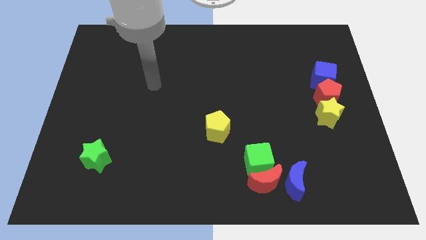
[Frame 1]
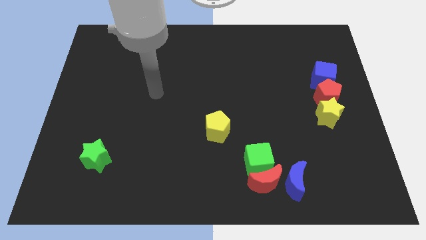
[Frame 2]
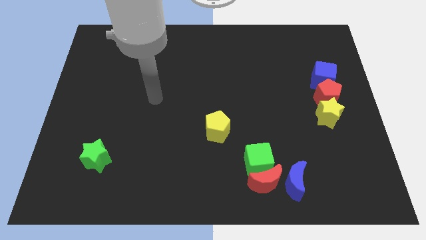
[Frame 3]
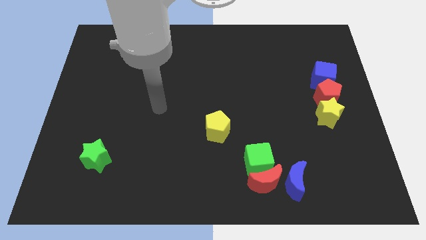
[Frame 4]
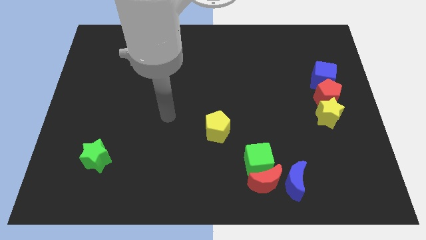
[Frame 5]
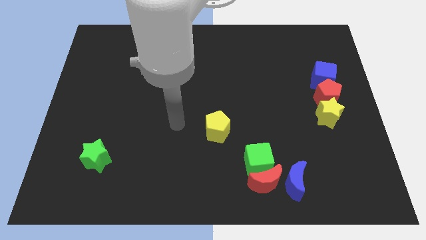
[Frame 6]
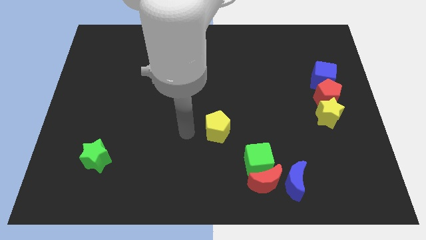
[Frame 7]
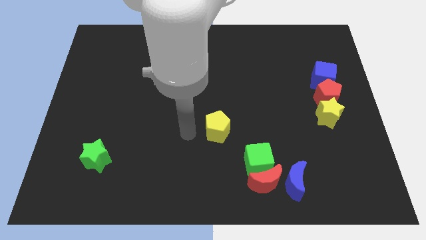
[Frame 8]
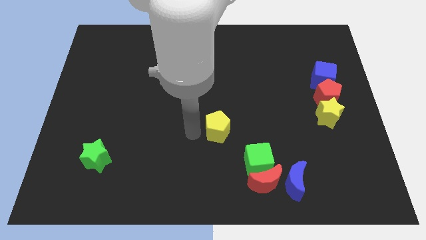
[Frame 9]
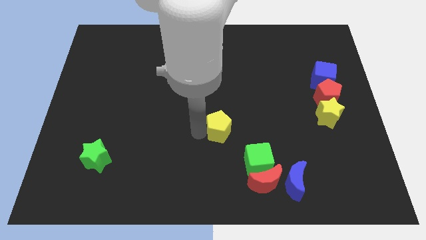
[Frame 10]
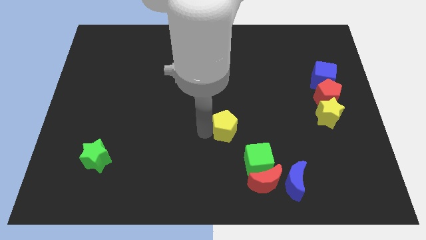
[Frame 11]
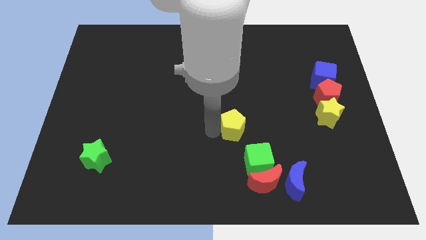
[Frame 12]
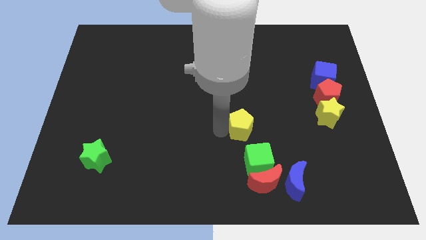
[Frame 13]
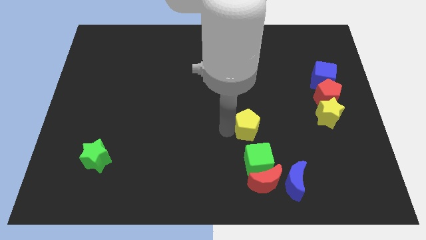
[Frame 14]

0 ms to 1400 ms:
slide the yellow pentagon to the right somewhat

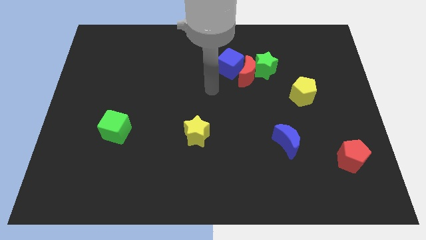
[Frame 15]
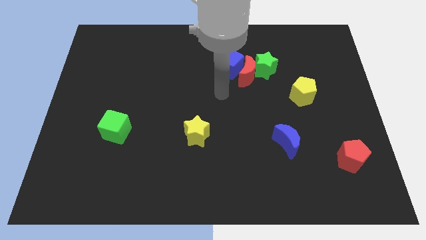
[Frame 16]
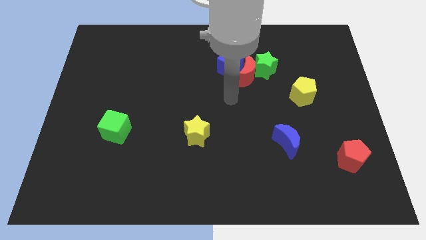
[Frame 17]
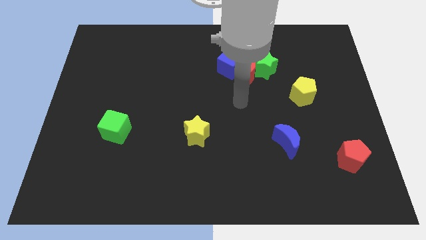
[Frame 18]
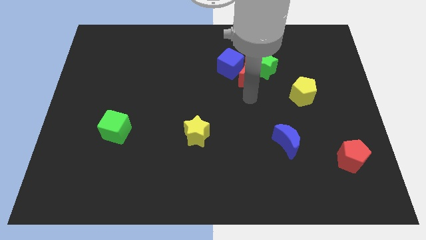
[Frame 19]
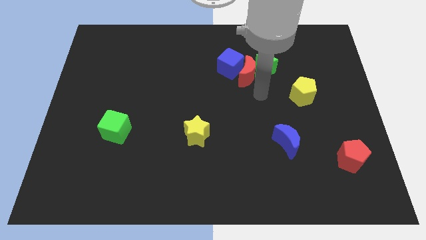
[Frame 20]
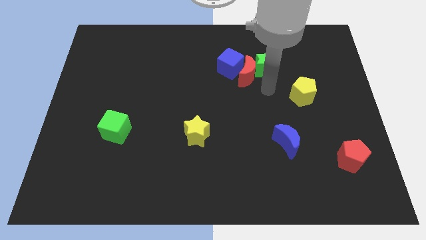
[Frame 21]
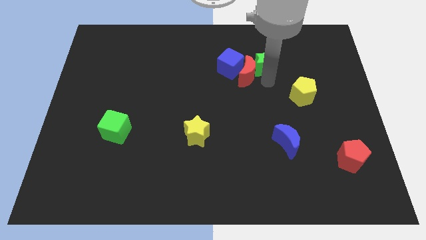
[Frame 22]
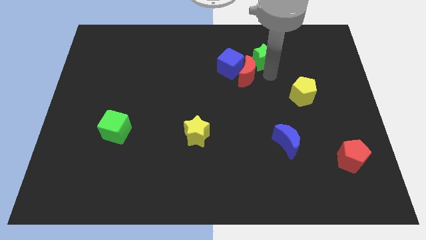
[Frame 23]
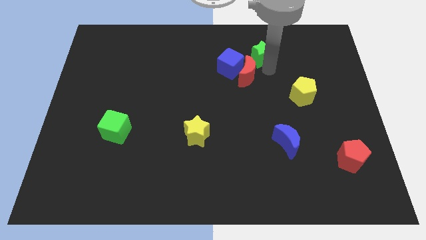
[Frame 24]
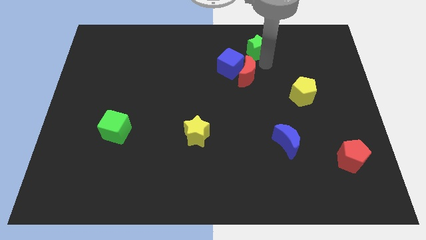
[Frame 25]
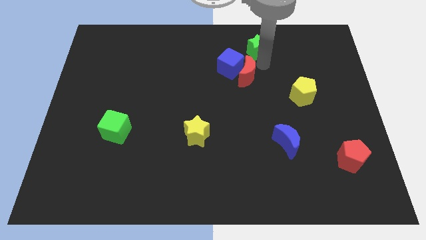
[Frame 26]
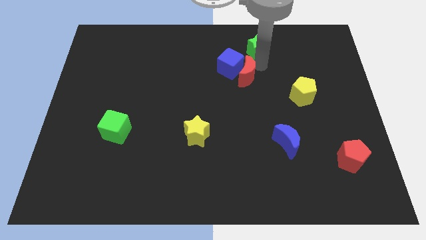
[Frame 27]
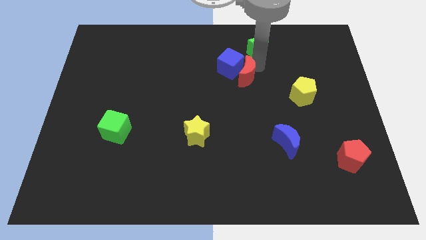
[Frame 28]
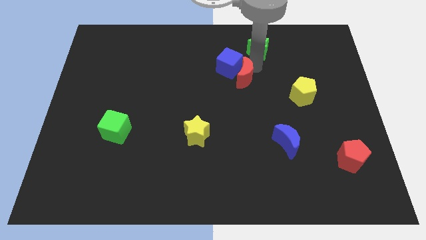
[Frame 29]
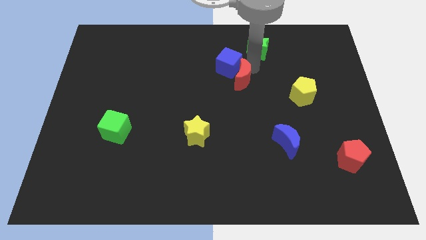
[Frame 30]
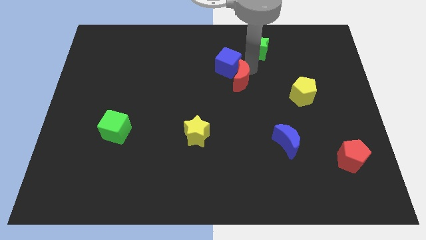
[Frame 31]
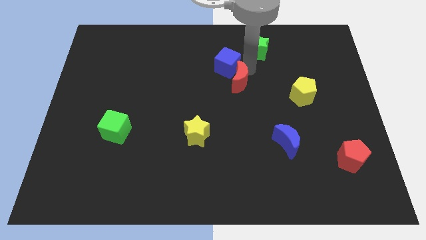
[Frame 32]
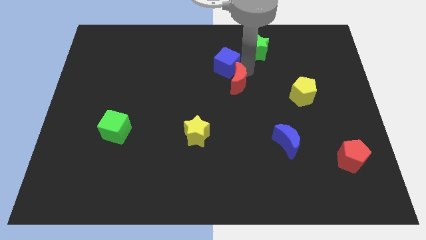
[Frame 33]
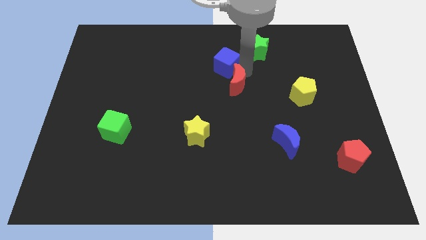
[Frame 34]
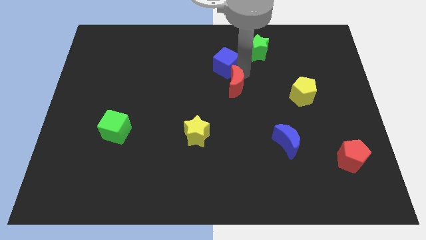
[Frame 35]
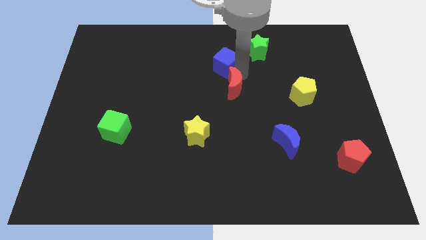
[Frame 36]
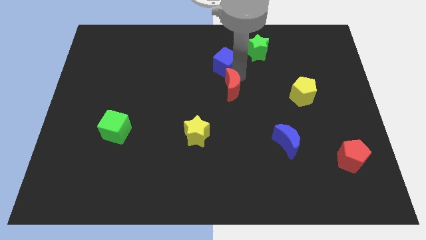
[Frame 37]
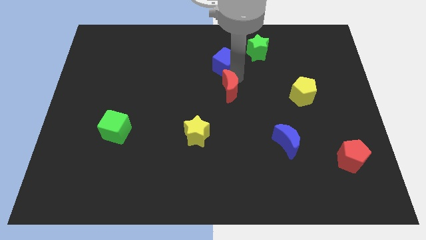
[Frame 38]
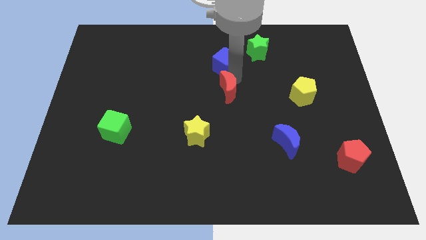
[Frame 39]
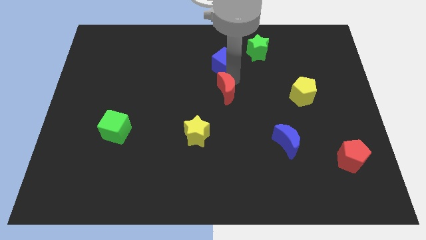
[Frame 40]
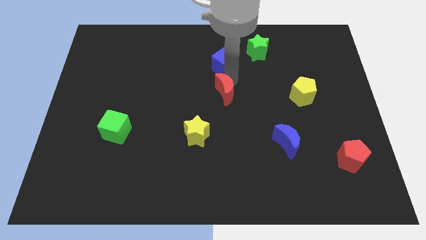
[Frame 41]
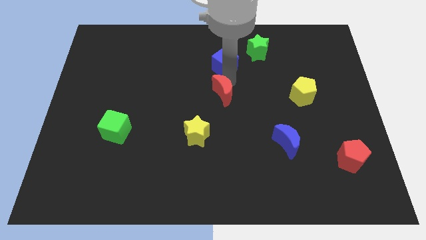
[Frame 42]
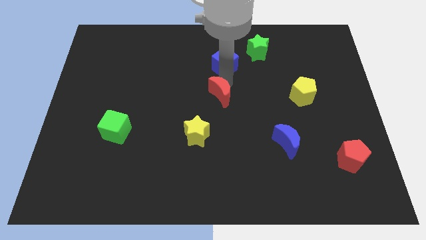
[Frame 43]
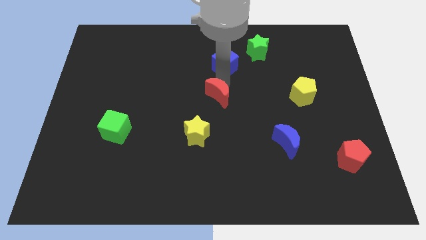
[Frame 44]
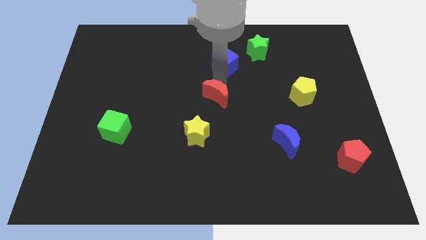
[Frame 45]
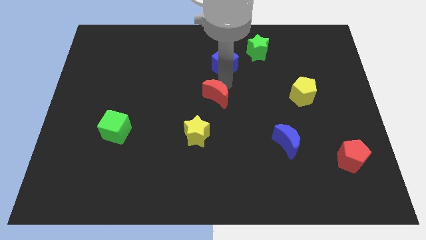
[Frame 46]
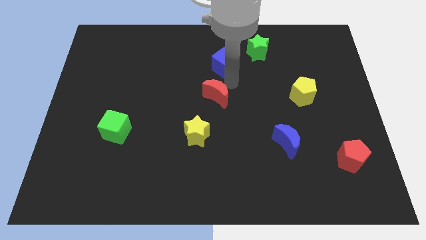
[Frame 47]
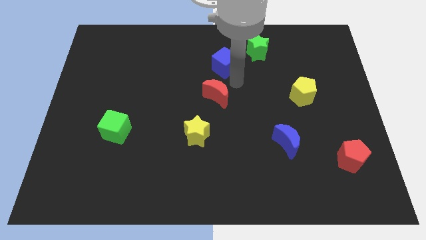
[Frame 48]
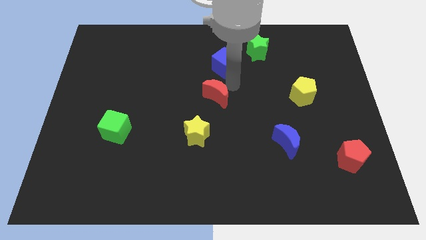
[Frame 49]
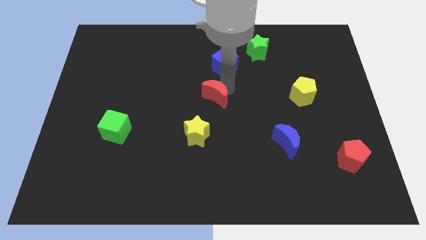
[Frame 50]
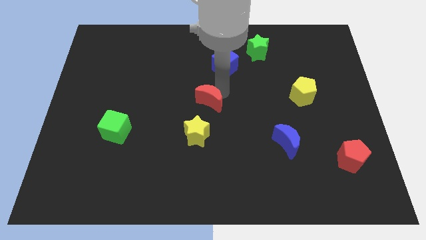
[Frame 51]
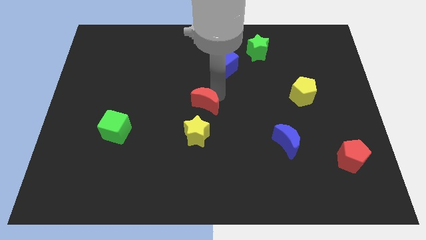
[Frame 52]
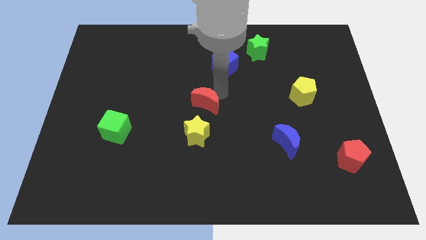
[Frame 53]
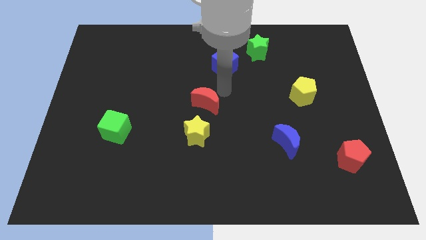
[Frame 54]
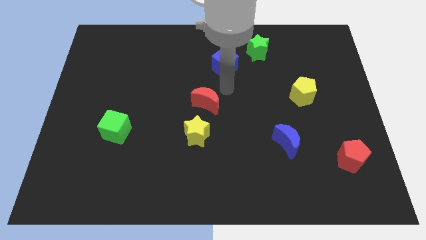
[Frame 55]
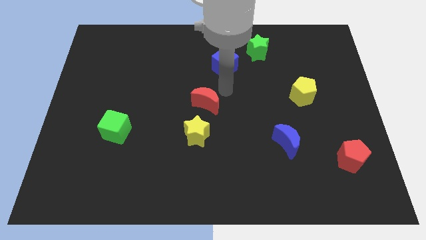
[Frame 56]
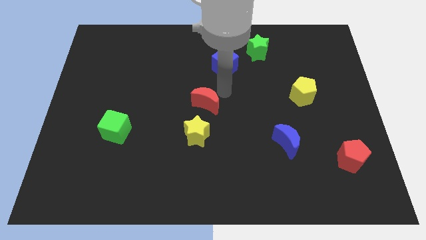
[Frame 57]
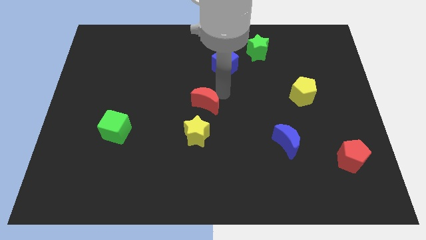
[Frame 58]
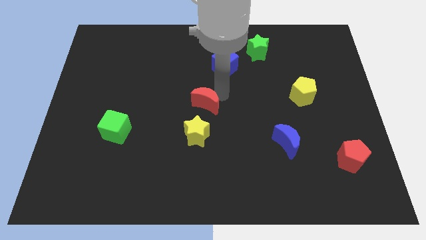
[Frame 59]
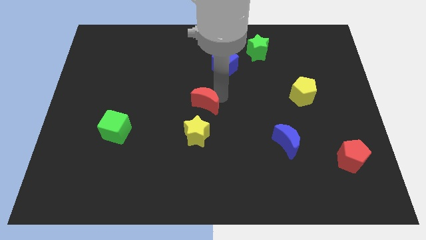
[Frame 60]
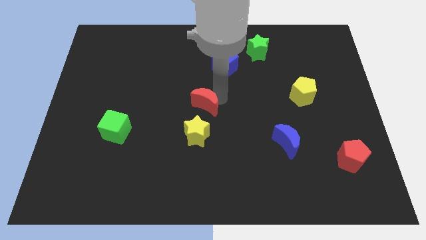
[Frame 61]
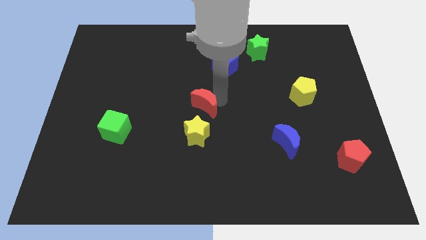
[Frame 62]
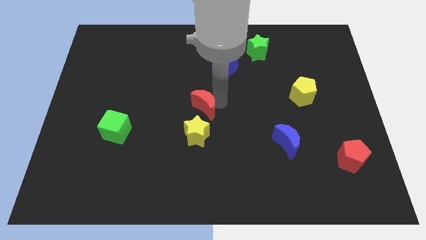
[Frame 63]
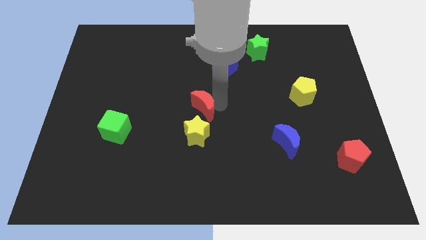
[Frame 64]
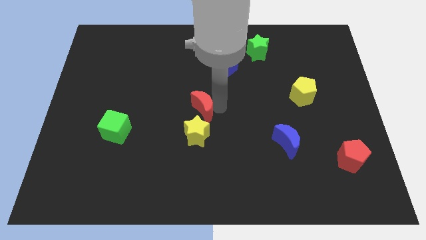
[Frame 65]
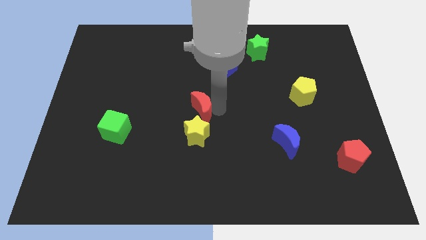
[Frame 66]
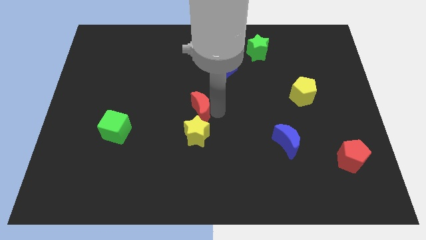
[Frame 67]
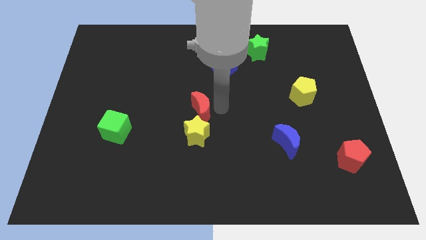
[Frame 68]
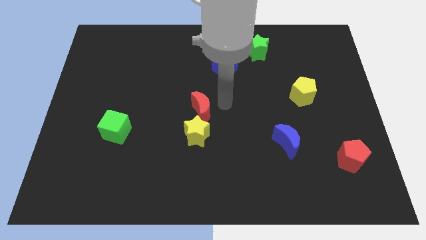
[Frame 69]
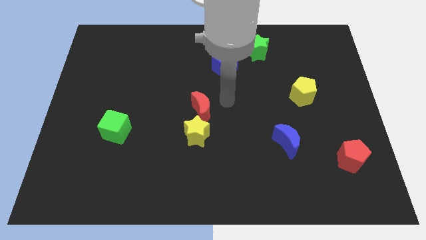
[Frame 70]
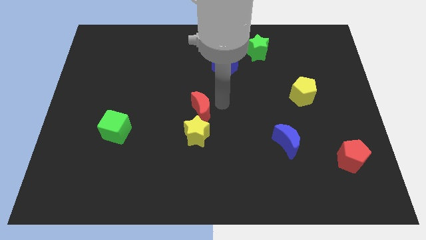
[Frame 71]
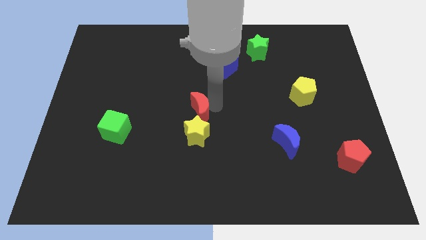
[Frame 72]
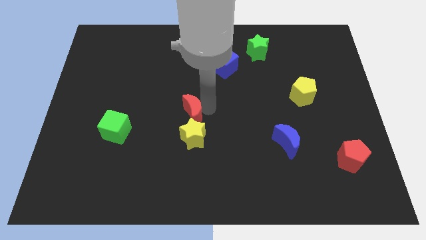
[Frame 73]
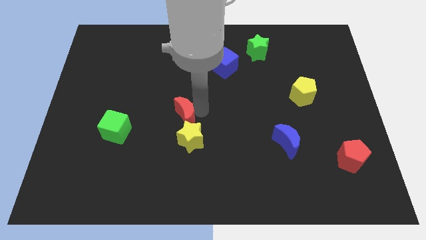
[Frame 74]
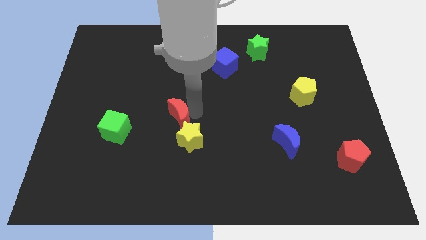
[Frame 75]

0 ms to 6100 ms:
slide the red moon downwards and then to the left

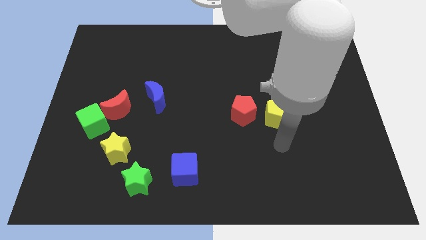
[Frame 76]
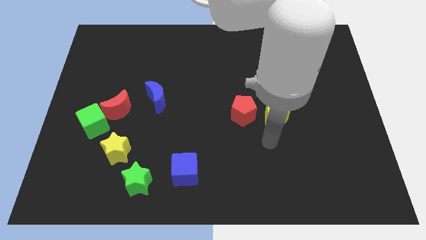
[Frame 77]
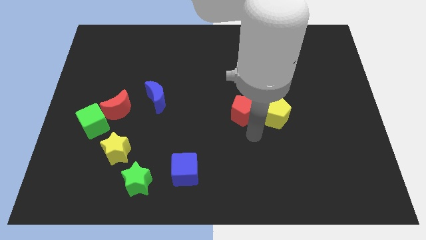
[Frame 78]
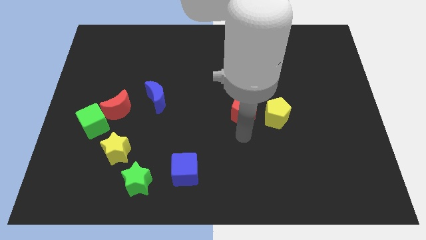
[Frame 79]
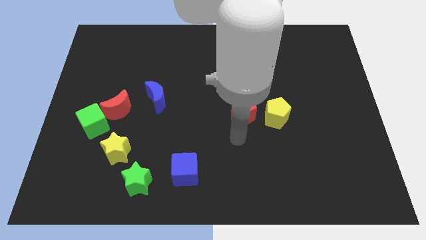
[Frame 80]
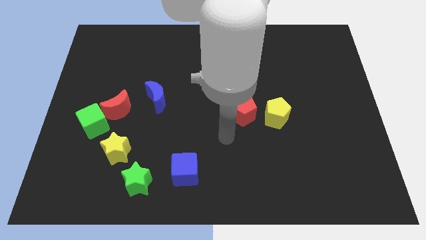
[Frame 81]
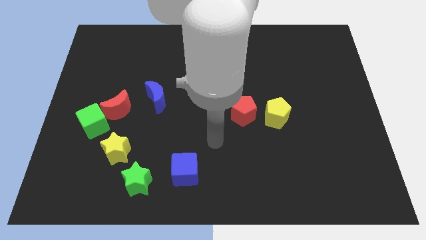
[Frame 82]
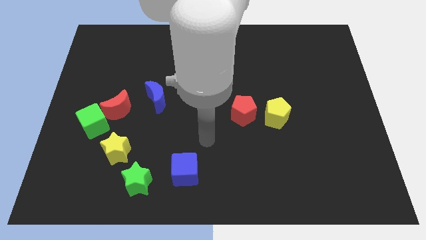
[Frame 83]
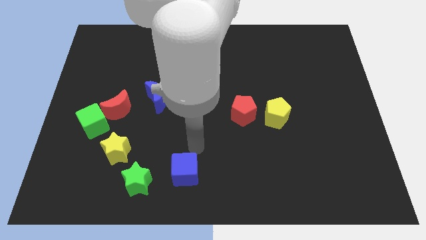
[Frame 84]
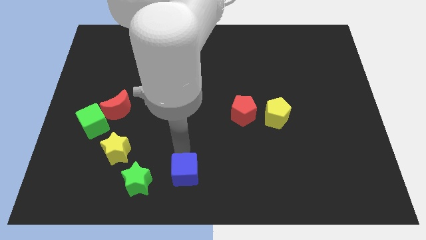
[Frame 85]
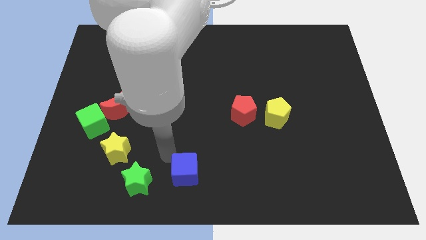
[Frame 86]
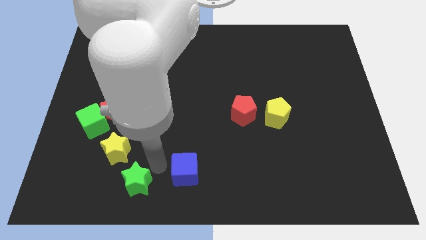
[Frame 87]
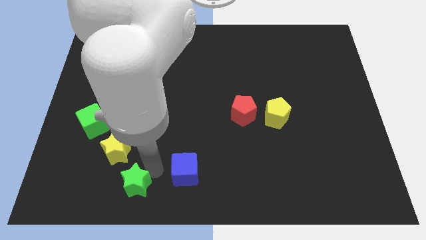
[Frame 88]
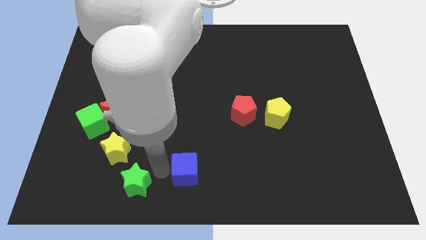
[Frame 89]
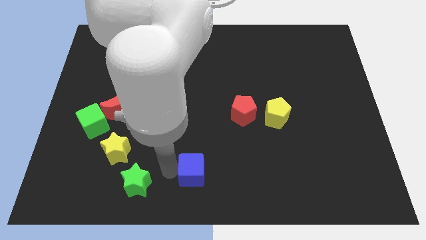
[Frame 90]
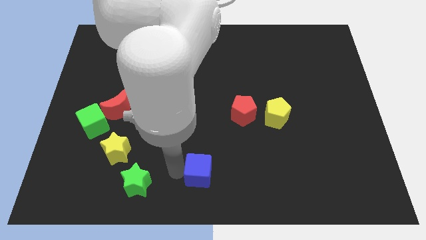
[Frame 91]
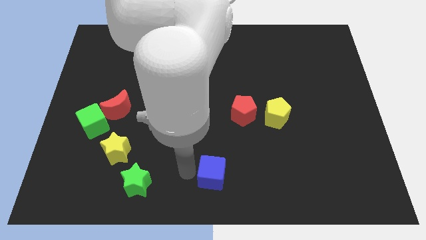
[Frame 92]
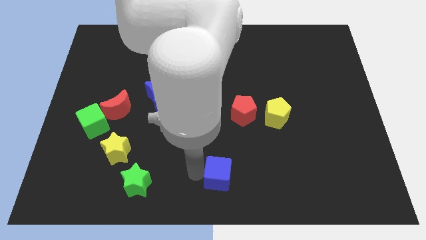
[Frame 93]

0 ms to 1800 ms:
move the blue cube somewhat right
